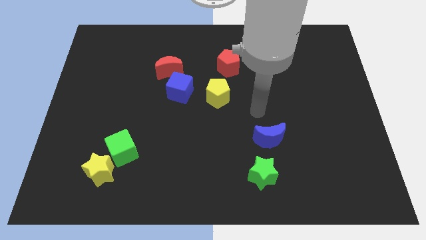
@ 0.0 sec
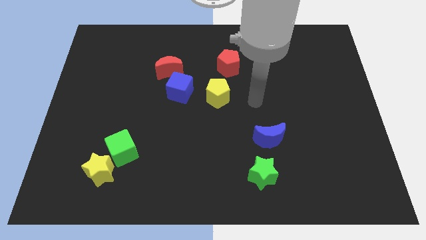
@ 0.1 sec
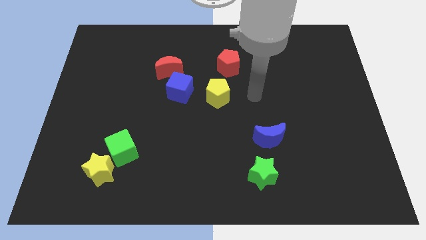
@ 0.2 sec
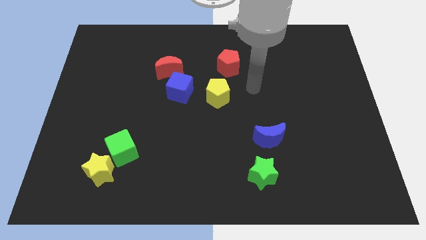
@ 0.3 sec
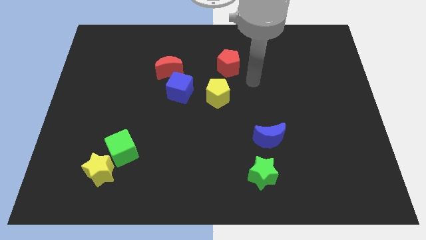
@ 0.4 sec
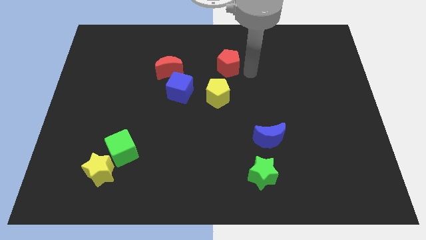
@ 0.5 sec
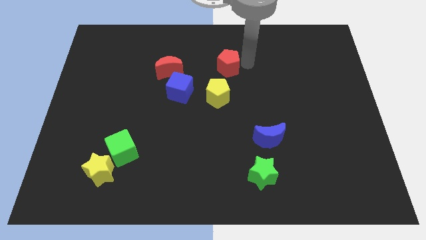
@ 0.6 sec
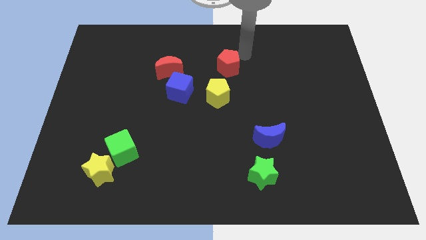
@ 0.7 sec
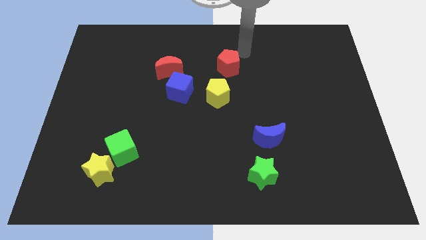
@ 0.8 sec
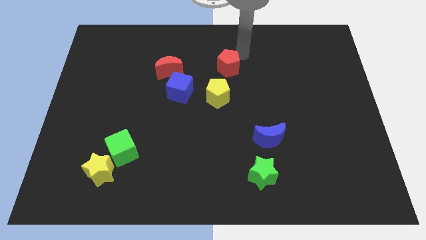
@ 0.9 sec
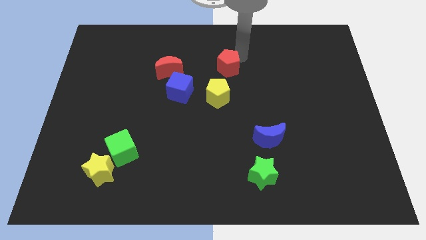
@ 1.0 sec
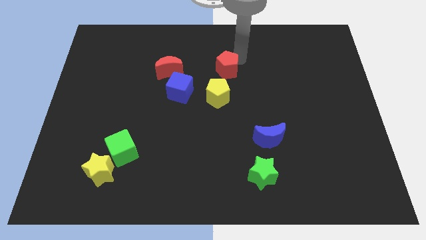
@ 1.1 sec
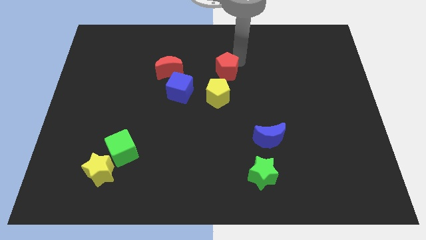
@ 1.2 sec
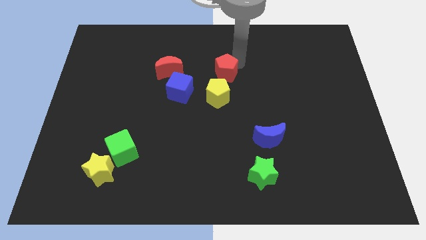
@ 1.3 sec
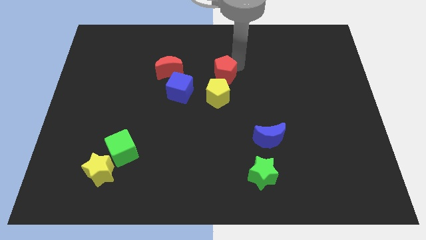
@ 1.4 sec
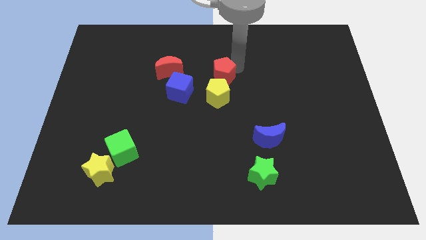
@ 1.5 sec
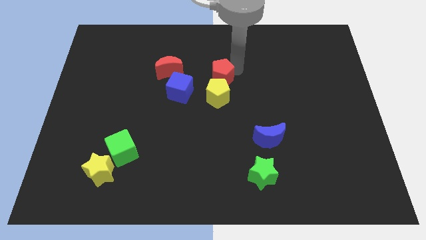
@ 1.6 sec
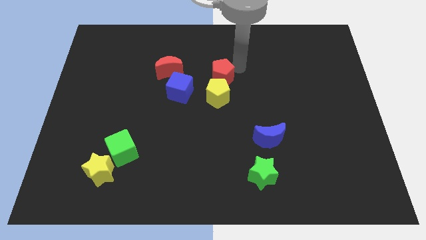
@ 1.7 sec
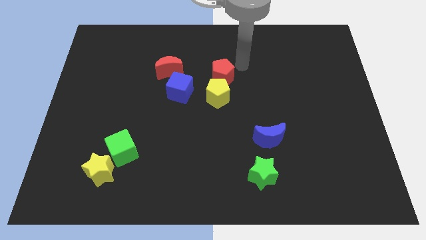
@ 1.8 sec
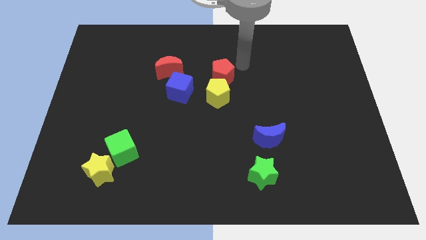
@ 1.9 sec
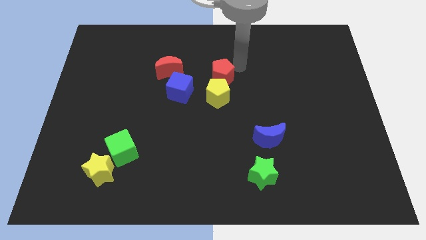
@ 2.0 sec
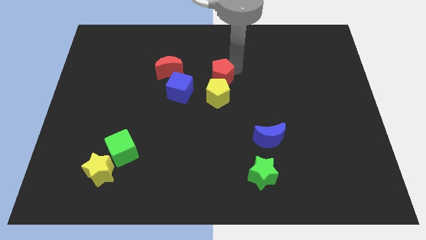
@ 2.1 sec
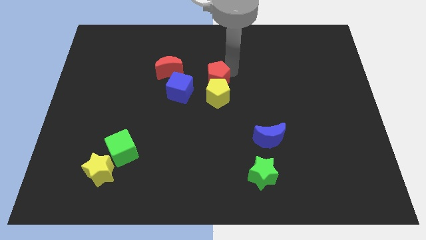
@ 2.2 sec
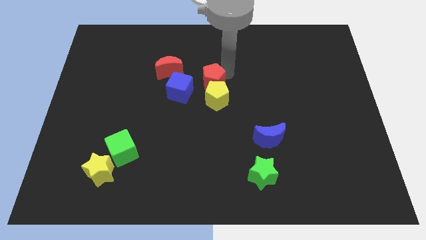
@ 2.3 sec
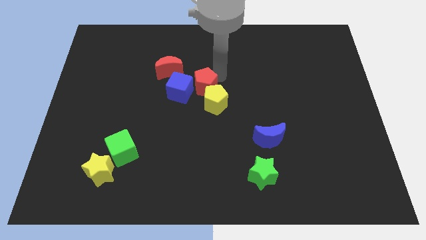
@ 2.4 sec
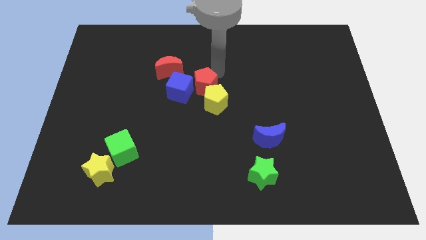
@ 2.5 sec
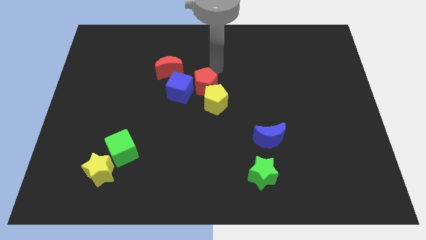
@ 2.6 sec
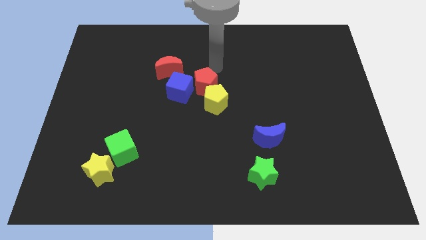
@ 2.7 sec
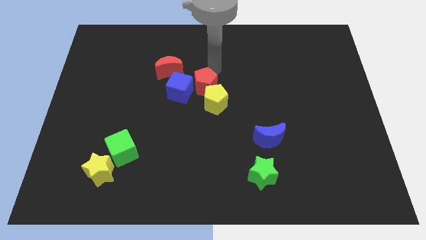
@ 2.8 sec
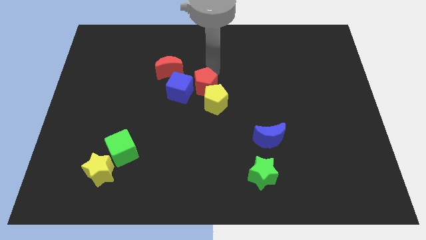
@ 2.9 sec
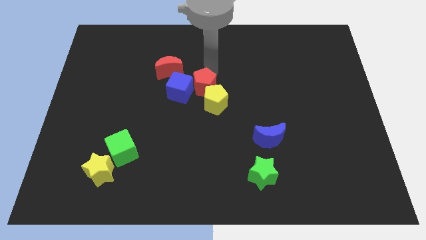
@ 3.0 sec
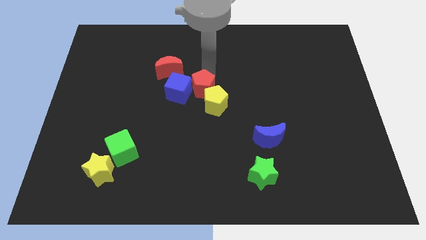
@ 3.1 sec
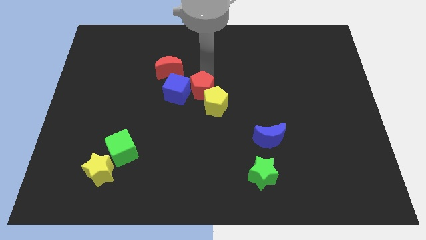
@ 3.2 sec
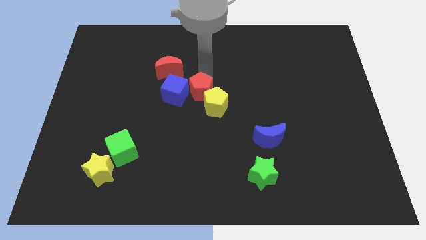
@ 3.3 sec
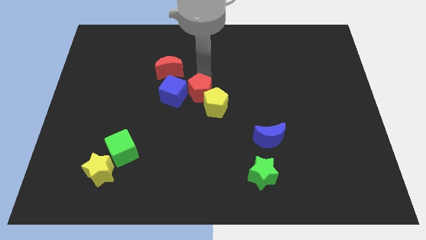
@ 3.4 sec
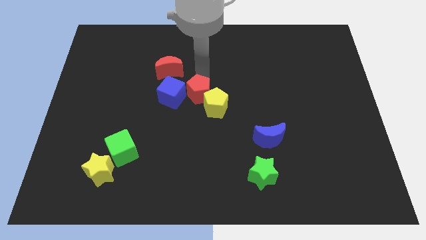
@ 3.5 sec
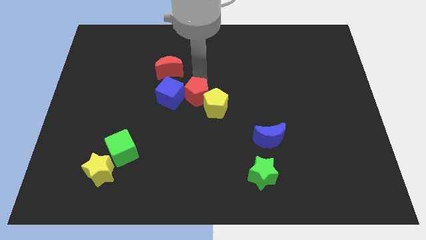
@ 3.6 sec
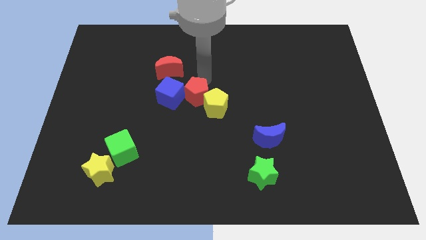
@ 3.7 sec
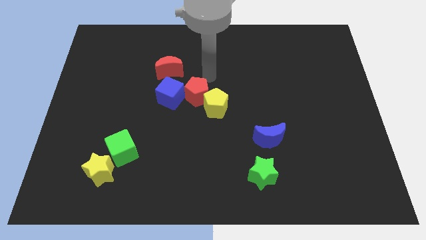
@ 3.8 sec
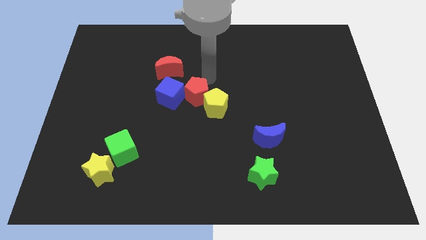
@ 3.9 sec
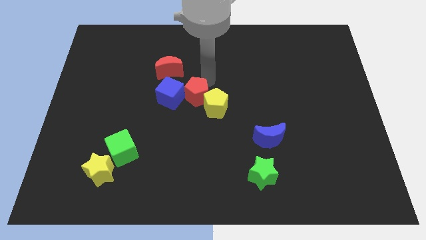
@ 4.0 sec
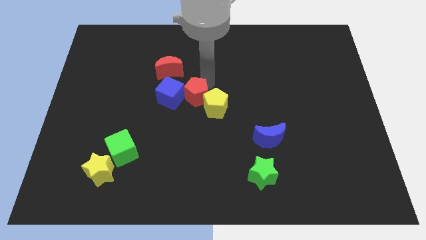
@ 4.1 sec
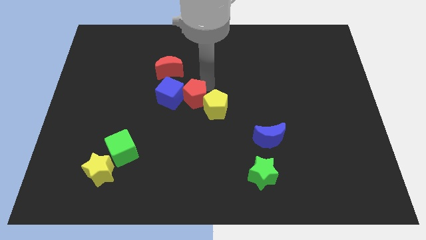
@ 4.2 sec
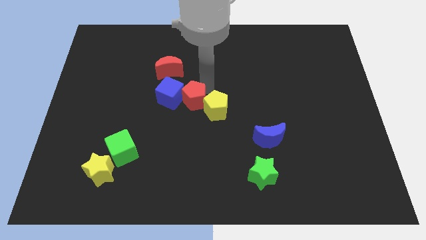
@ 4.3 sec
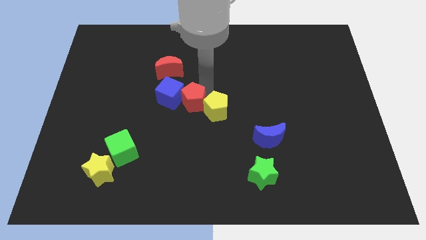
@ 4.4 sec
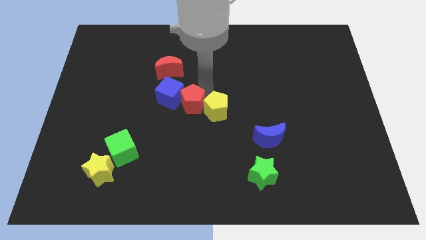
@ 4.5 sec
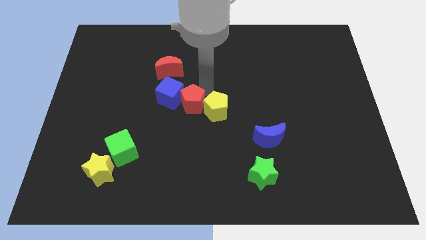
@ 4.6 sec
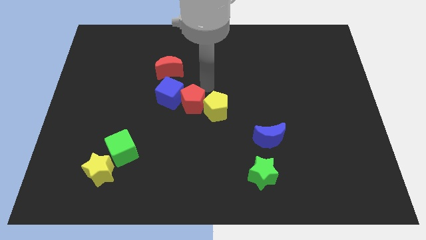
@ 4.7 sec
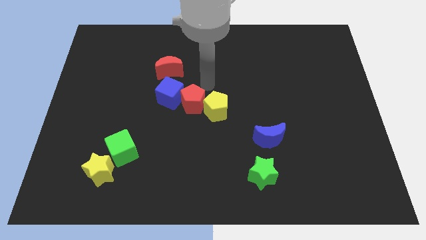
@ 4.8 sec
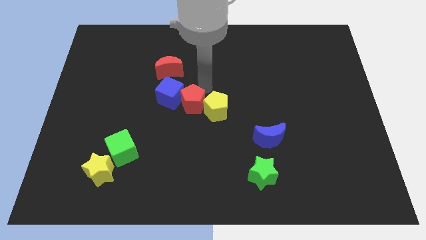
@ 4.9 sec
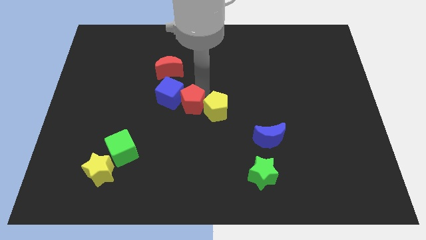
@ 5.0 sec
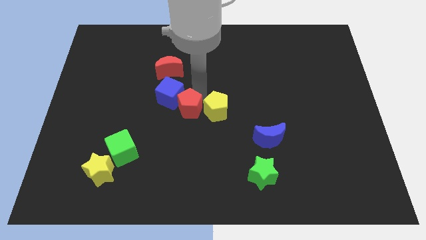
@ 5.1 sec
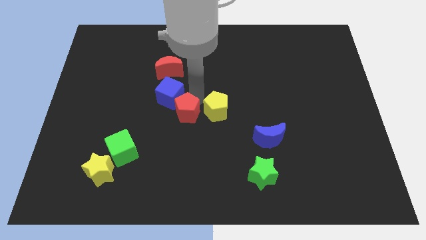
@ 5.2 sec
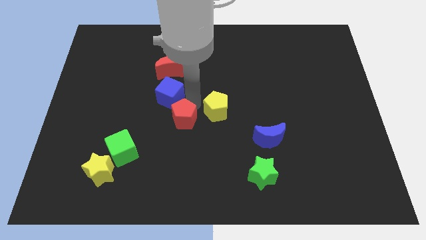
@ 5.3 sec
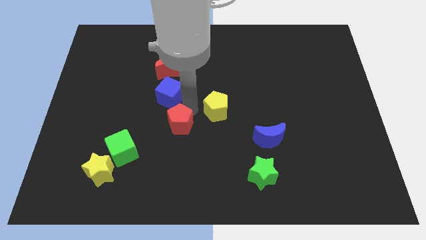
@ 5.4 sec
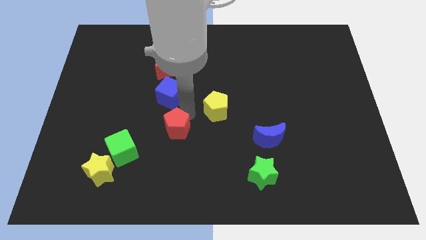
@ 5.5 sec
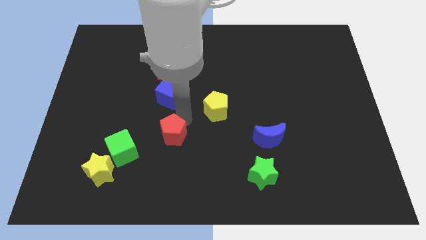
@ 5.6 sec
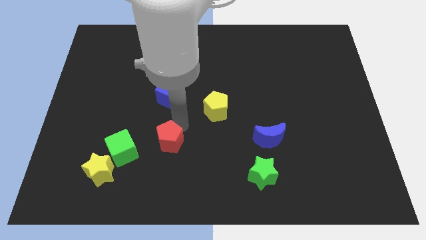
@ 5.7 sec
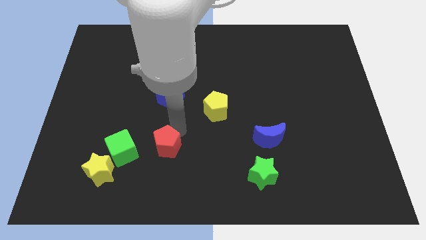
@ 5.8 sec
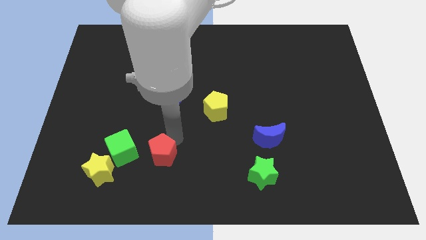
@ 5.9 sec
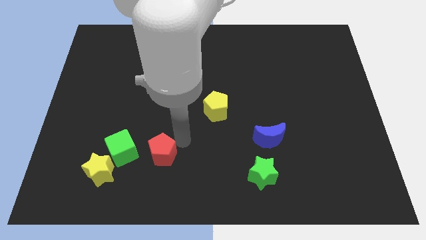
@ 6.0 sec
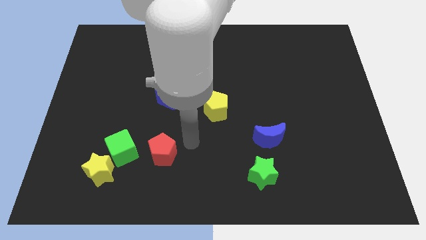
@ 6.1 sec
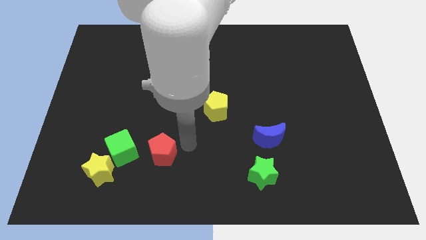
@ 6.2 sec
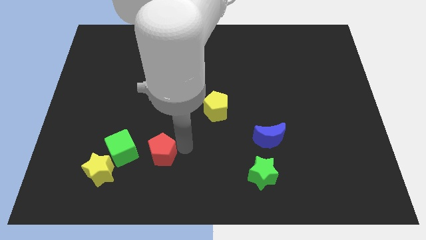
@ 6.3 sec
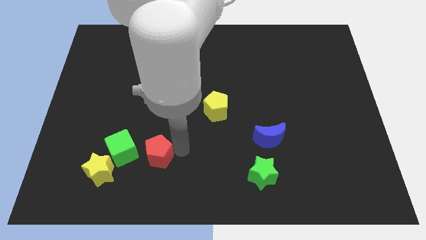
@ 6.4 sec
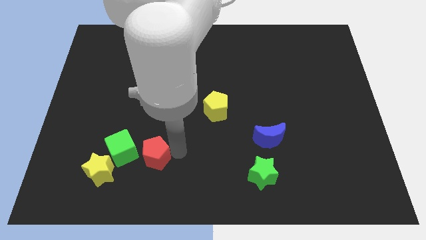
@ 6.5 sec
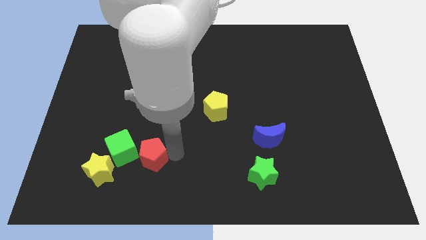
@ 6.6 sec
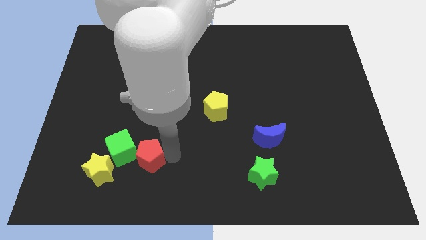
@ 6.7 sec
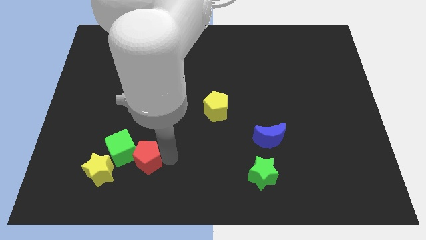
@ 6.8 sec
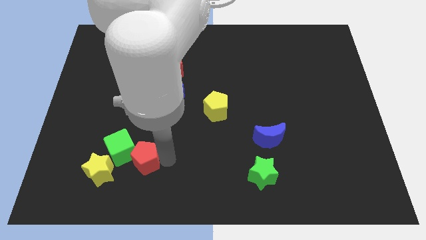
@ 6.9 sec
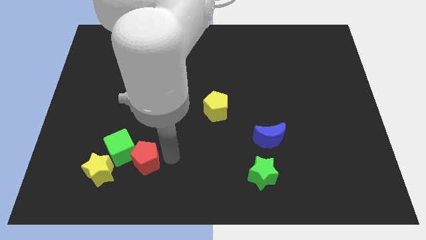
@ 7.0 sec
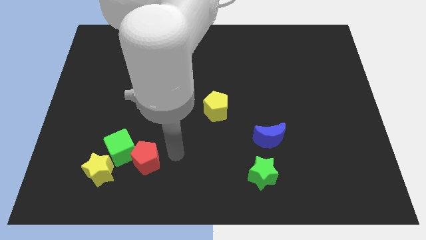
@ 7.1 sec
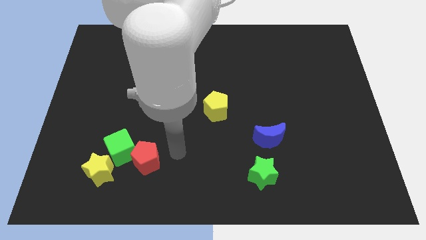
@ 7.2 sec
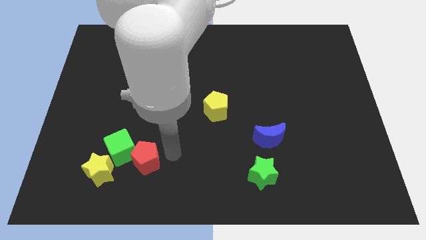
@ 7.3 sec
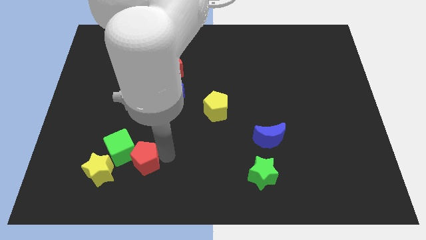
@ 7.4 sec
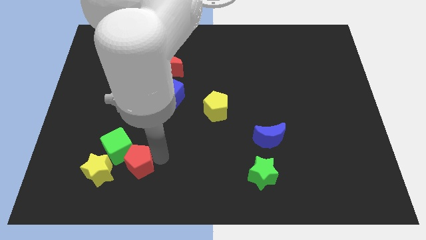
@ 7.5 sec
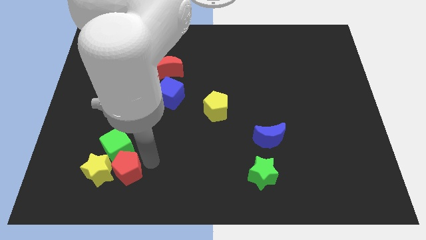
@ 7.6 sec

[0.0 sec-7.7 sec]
put the red pentagon next to the yellow star
